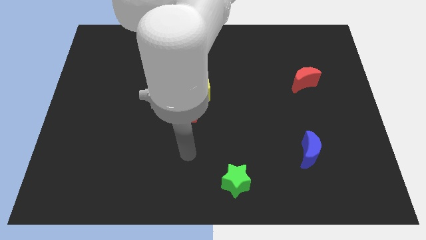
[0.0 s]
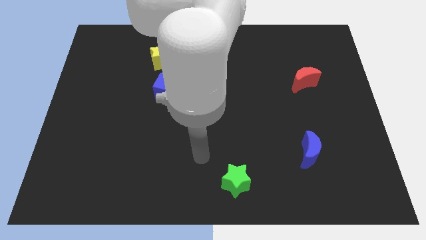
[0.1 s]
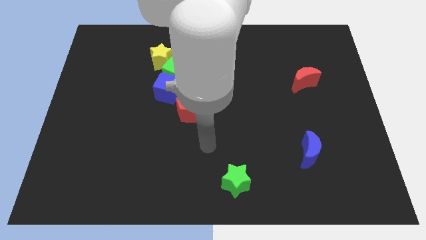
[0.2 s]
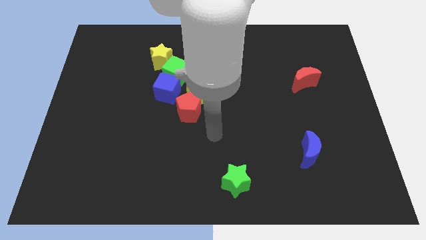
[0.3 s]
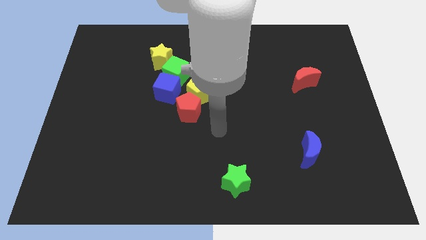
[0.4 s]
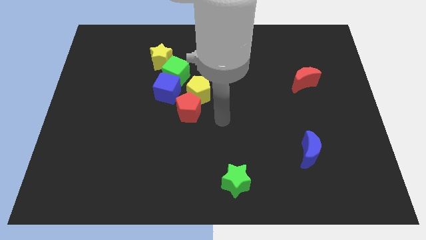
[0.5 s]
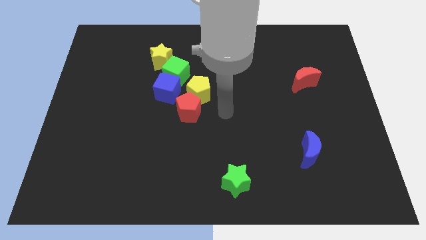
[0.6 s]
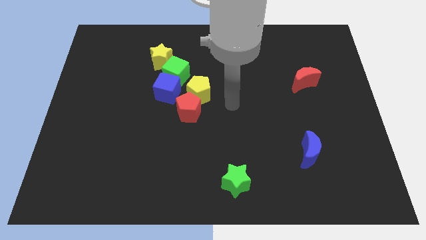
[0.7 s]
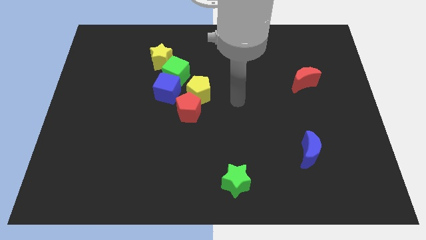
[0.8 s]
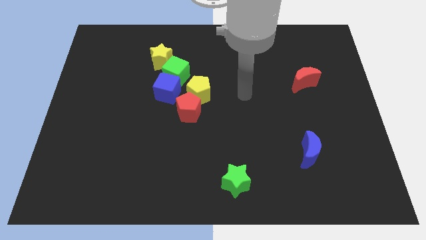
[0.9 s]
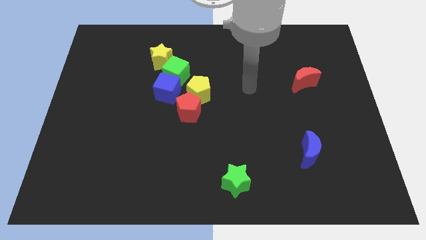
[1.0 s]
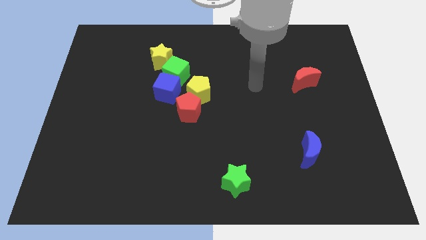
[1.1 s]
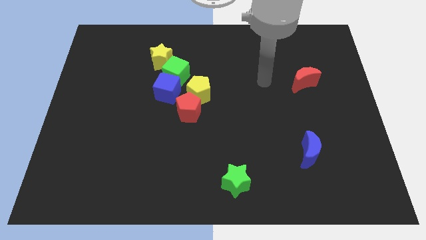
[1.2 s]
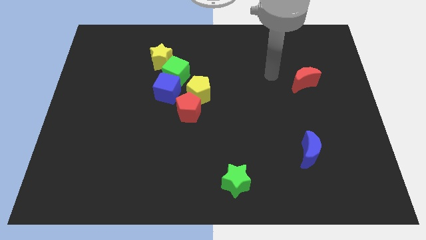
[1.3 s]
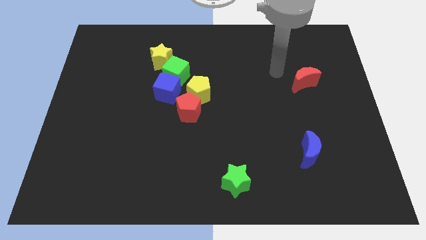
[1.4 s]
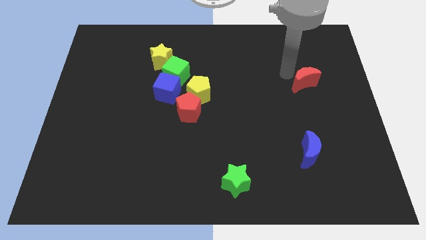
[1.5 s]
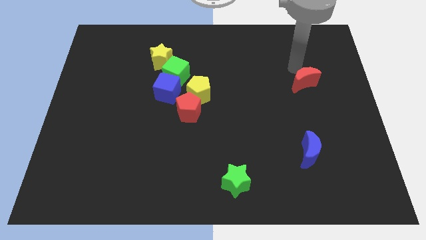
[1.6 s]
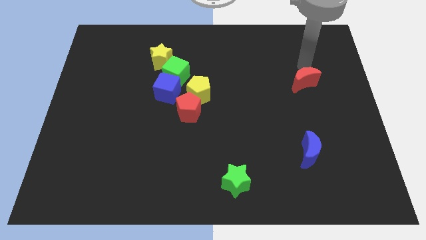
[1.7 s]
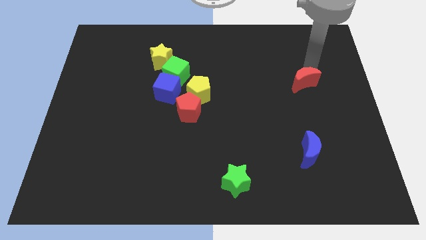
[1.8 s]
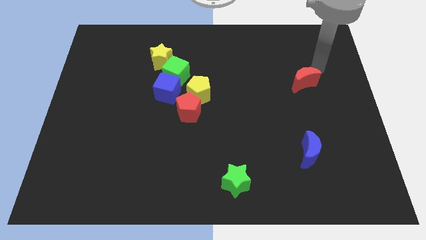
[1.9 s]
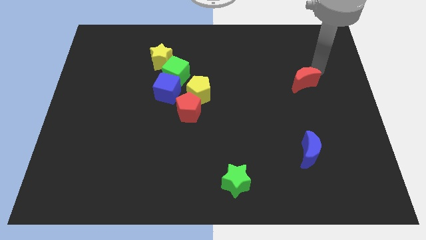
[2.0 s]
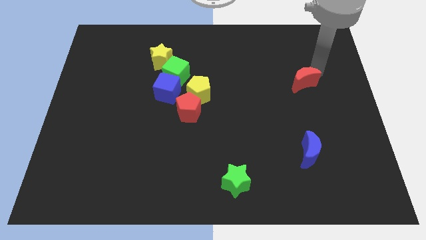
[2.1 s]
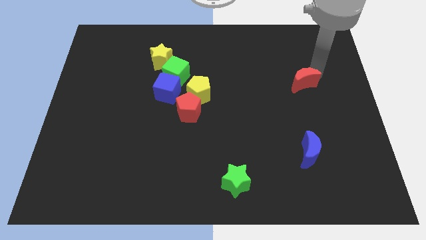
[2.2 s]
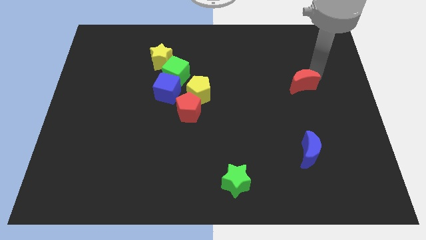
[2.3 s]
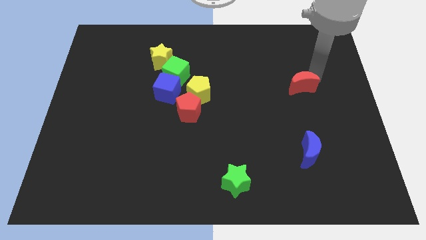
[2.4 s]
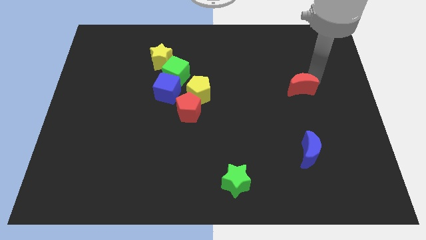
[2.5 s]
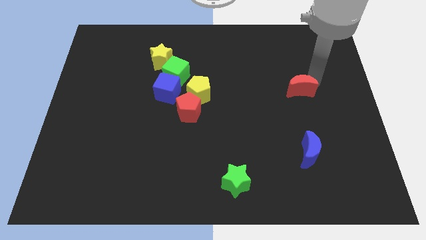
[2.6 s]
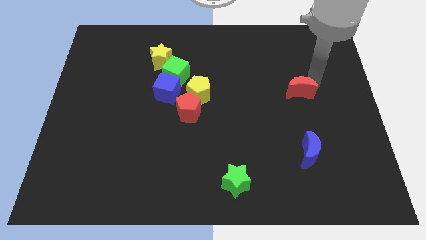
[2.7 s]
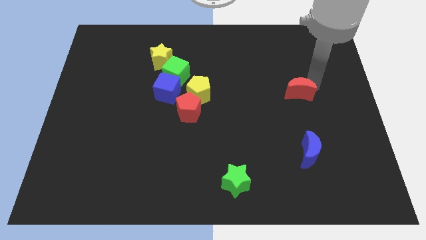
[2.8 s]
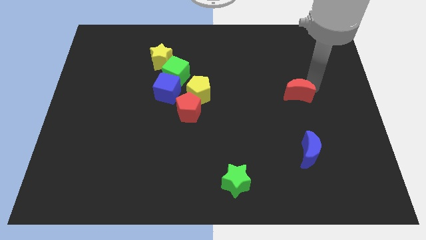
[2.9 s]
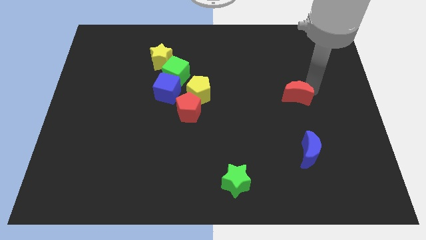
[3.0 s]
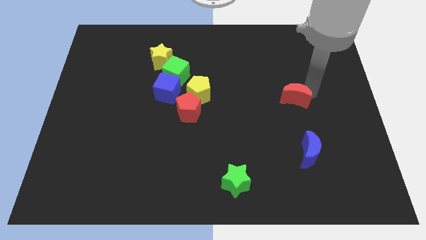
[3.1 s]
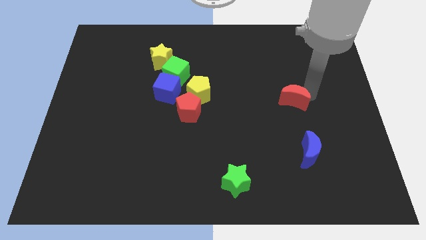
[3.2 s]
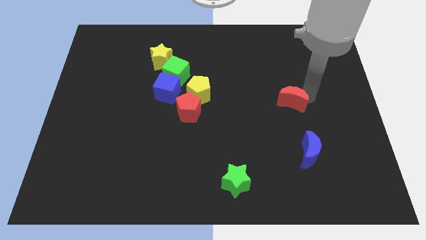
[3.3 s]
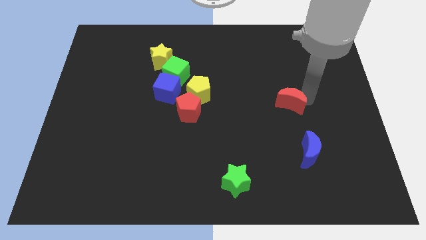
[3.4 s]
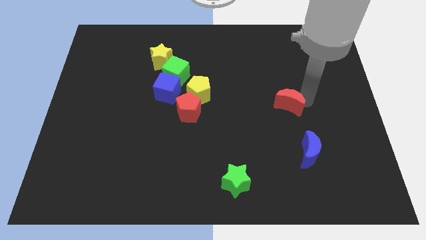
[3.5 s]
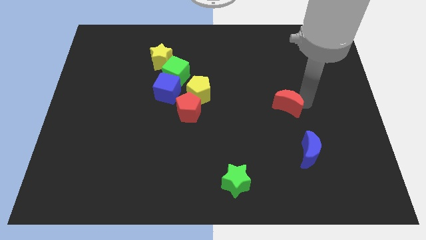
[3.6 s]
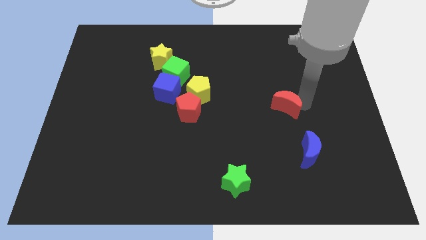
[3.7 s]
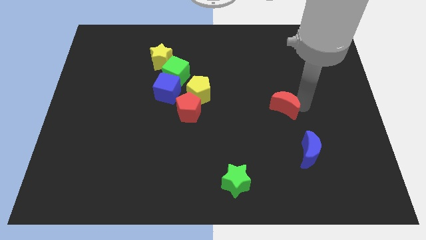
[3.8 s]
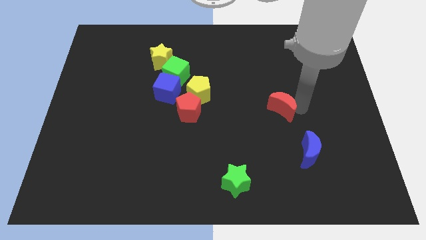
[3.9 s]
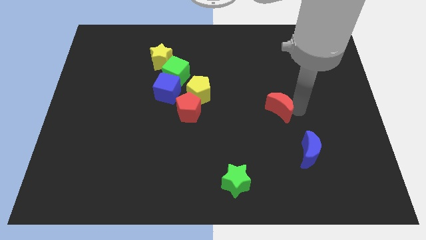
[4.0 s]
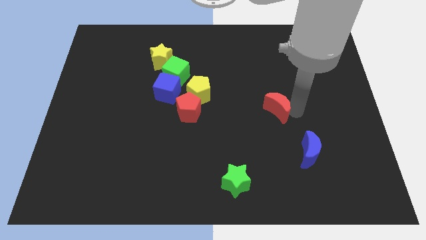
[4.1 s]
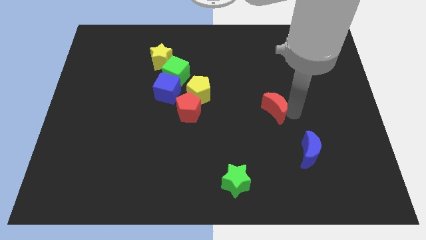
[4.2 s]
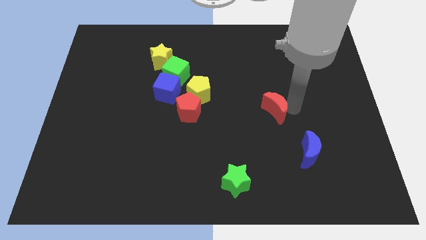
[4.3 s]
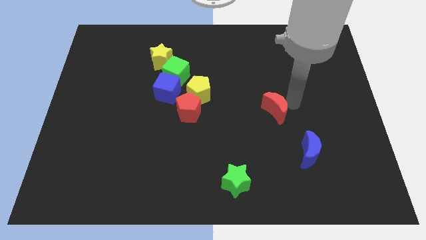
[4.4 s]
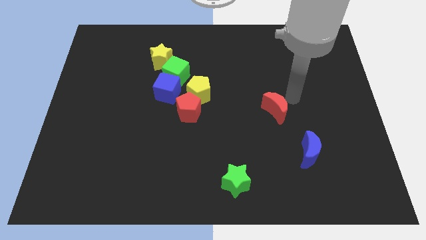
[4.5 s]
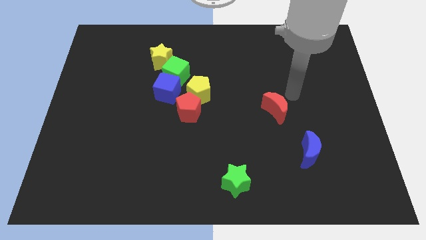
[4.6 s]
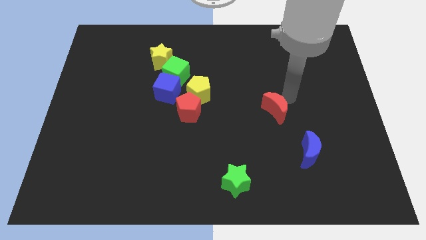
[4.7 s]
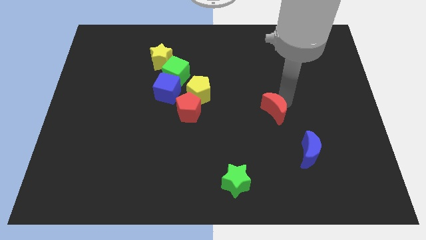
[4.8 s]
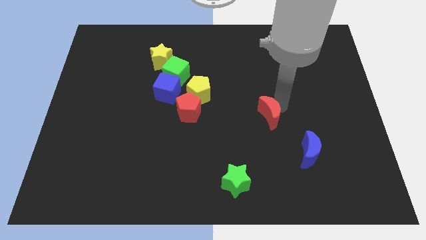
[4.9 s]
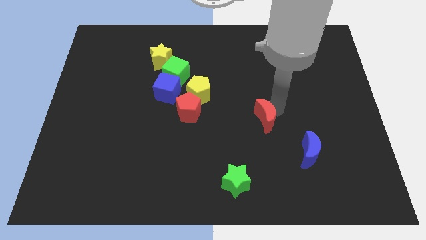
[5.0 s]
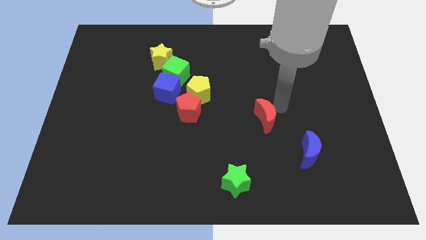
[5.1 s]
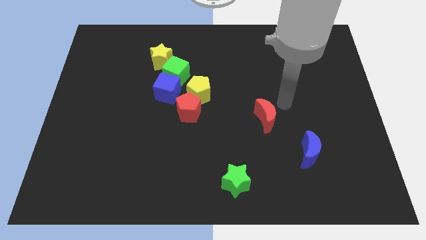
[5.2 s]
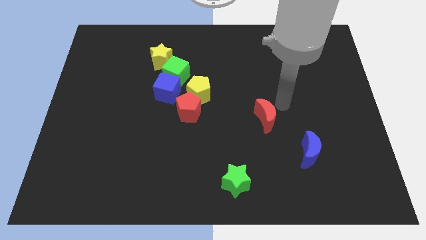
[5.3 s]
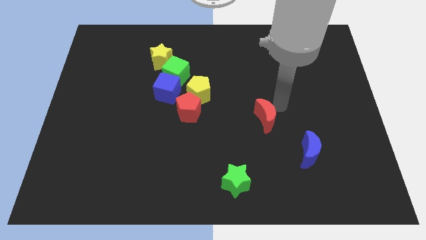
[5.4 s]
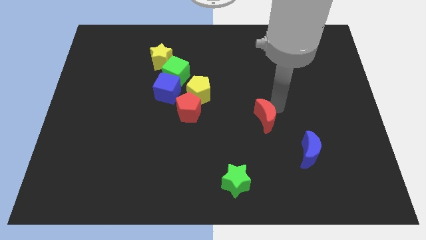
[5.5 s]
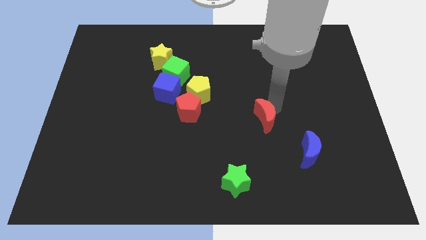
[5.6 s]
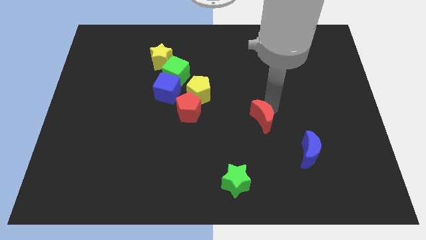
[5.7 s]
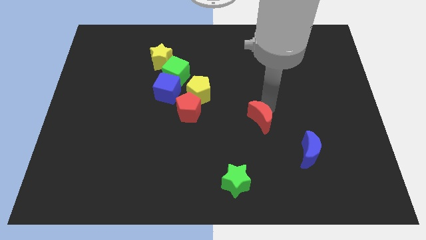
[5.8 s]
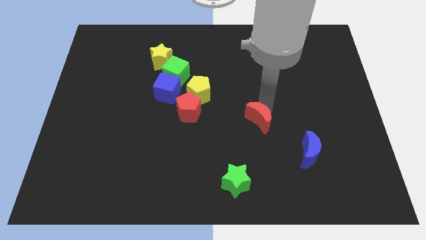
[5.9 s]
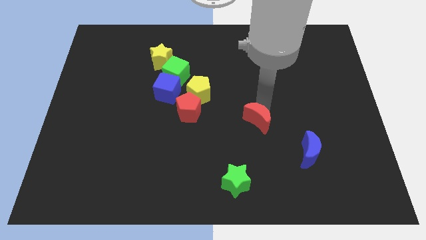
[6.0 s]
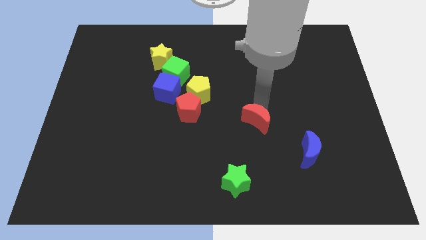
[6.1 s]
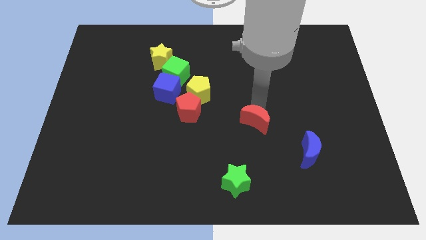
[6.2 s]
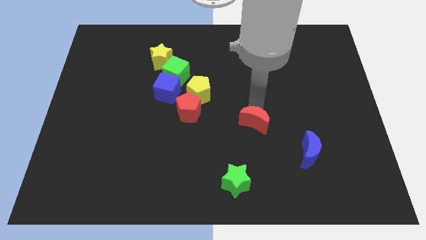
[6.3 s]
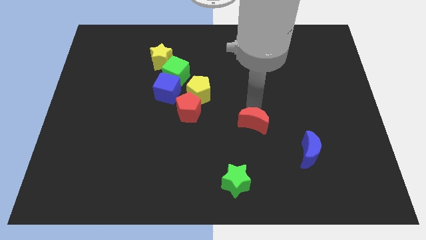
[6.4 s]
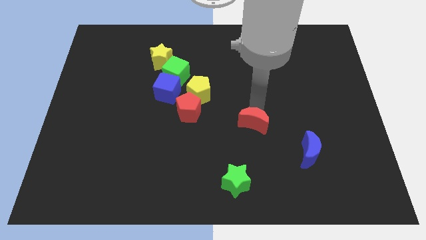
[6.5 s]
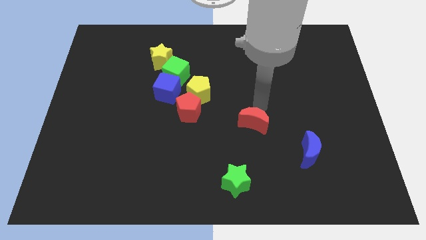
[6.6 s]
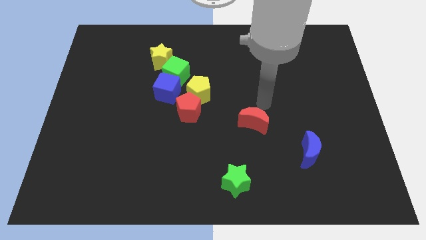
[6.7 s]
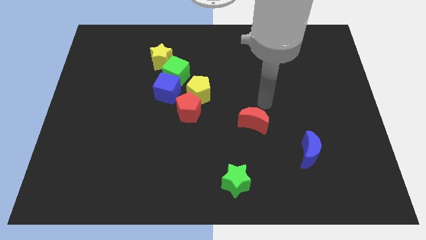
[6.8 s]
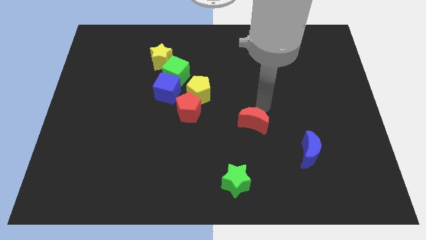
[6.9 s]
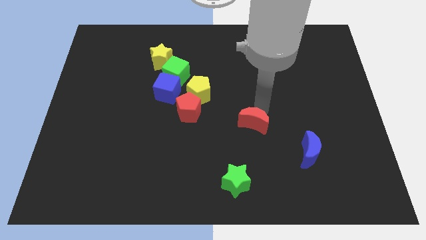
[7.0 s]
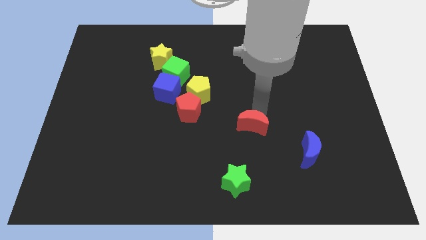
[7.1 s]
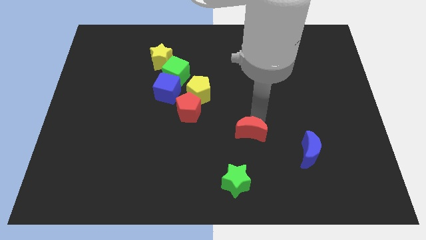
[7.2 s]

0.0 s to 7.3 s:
push the red moon above the green star

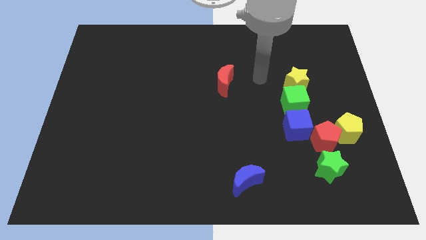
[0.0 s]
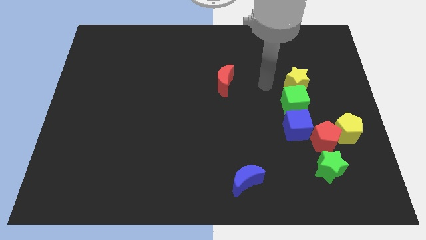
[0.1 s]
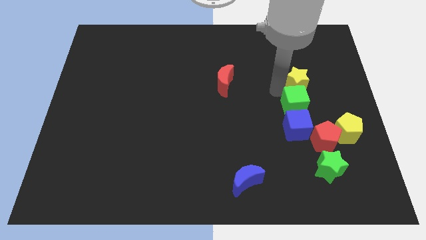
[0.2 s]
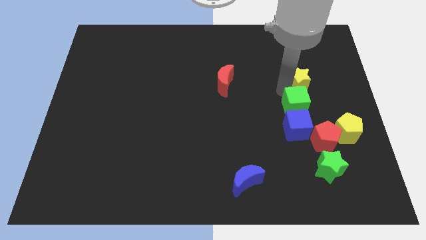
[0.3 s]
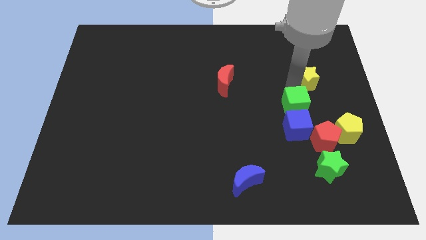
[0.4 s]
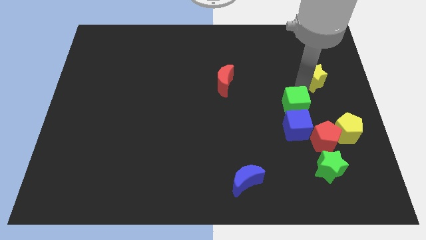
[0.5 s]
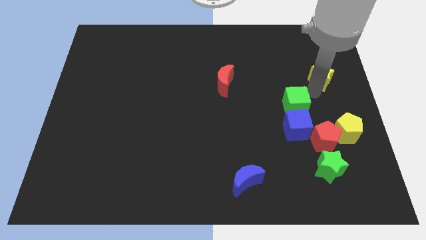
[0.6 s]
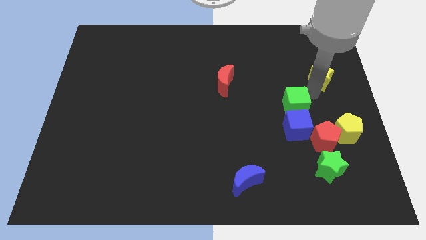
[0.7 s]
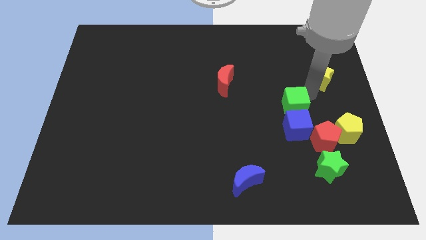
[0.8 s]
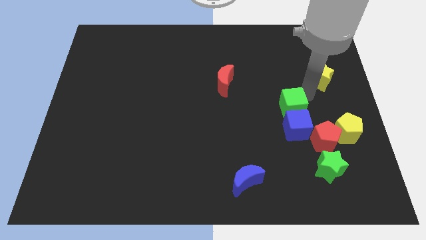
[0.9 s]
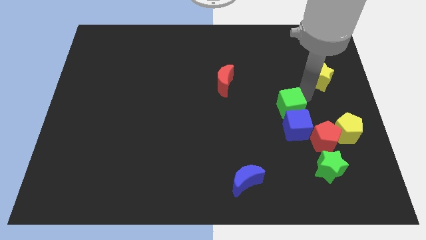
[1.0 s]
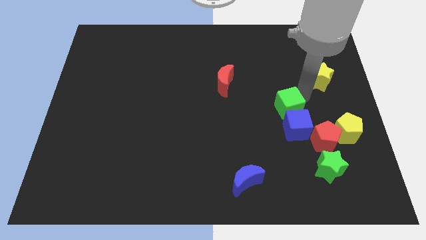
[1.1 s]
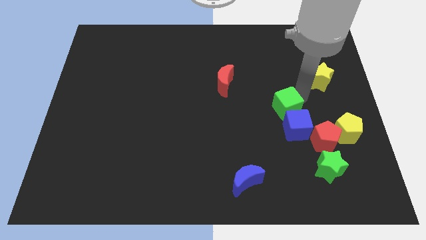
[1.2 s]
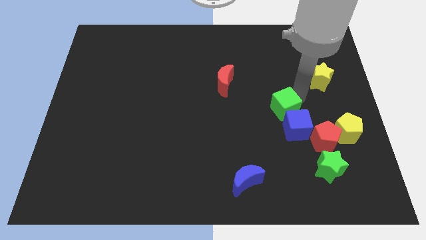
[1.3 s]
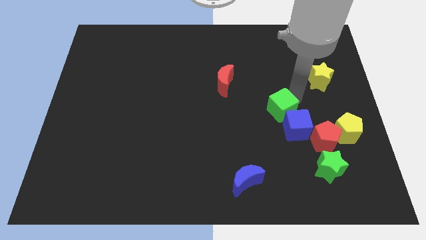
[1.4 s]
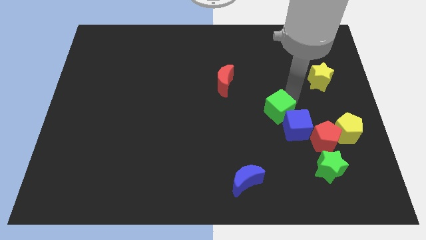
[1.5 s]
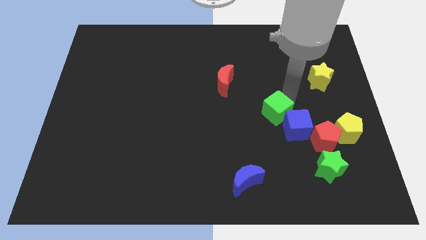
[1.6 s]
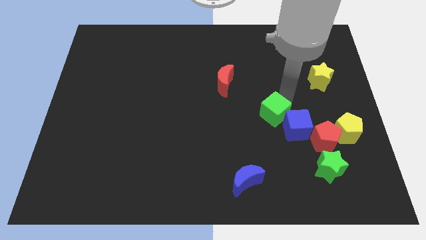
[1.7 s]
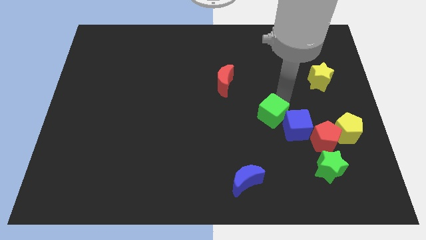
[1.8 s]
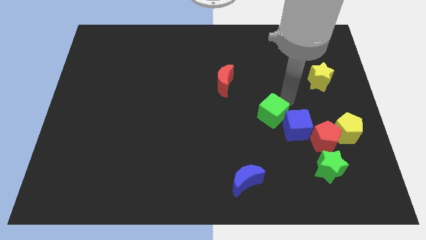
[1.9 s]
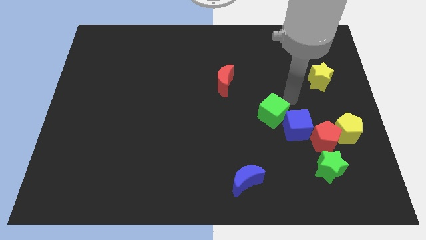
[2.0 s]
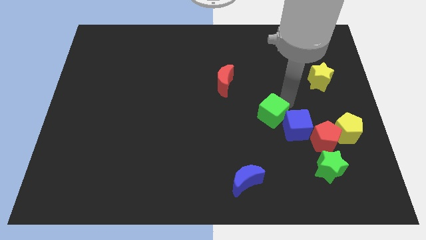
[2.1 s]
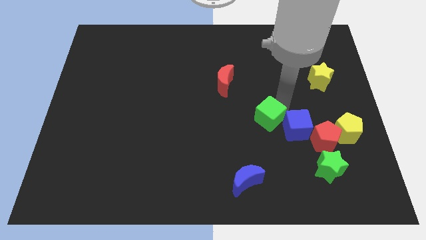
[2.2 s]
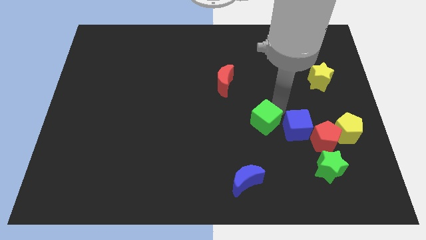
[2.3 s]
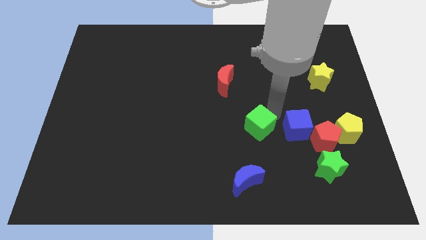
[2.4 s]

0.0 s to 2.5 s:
move the green cube to the top side of the blue moon
